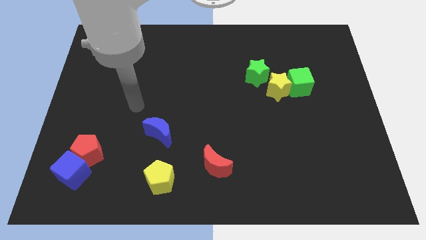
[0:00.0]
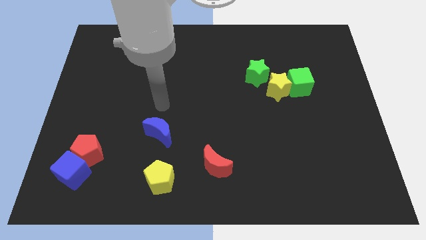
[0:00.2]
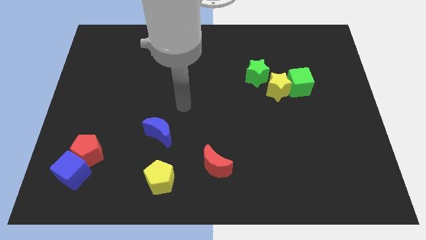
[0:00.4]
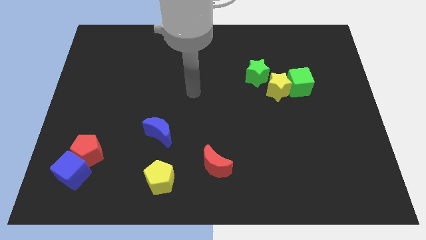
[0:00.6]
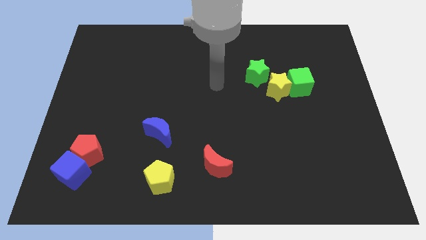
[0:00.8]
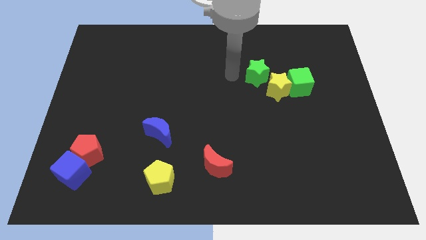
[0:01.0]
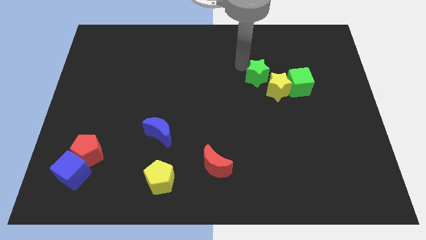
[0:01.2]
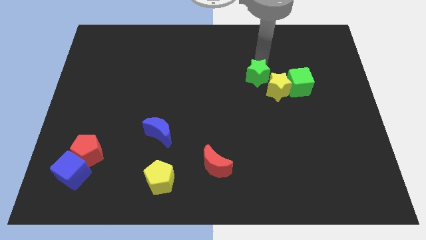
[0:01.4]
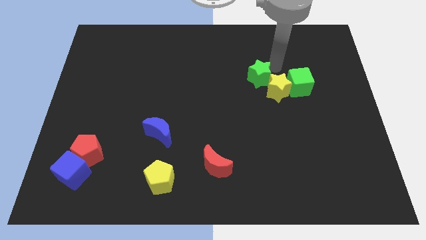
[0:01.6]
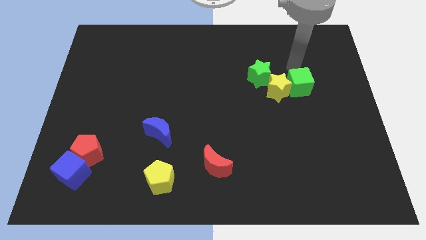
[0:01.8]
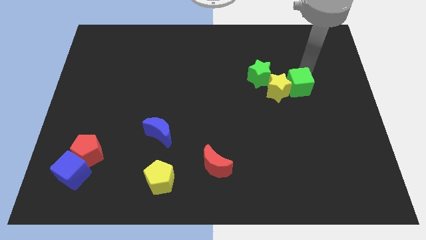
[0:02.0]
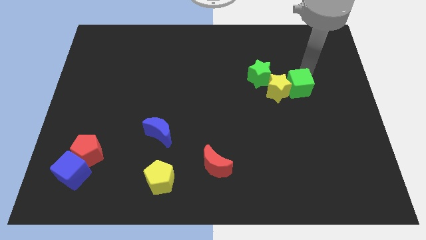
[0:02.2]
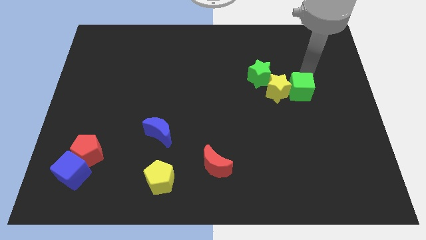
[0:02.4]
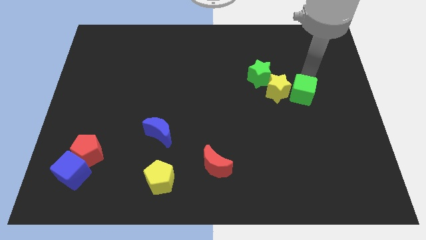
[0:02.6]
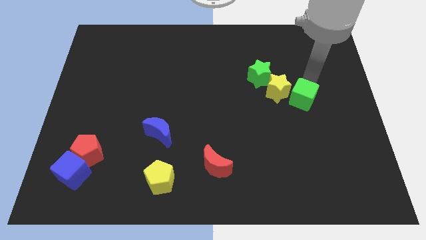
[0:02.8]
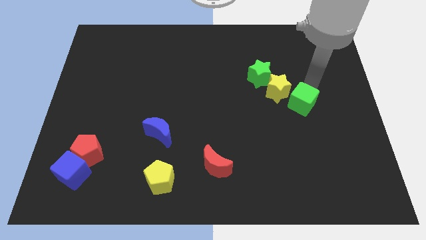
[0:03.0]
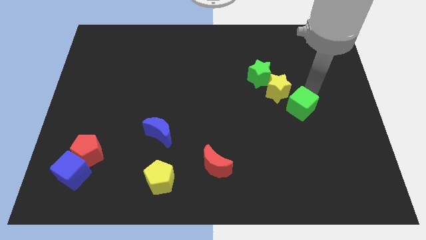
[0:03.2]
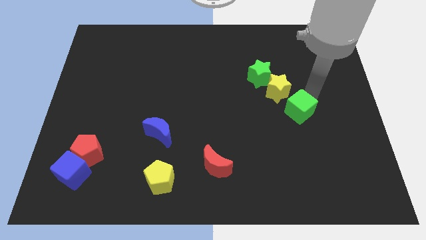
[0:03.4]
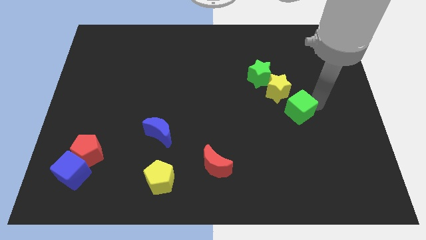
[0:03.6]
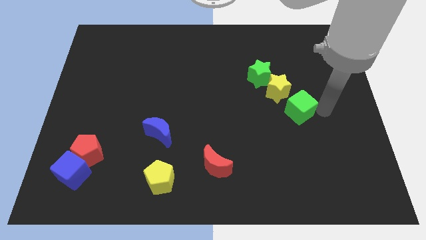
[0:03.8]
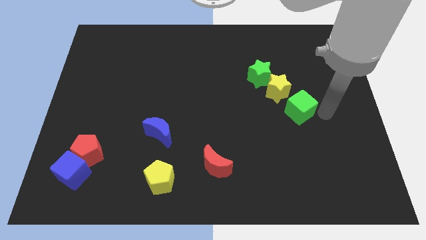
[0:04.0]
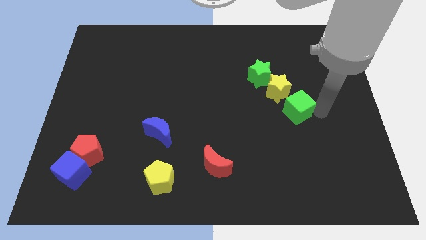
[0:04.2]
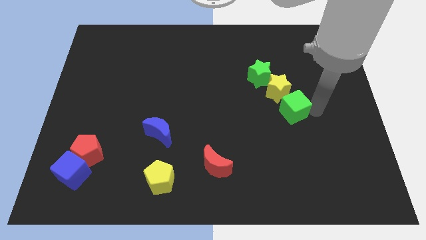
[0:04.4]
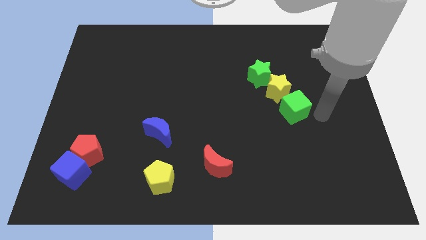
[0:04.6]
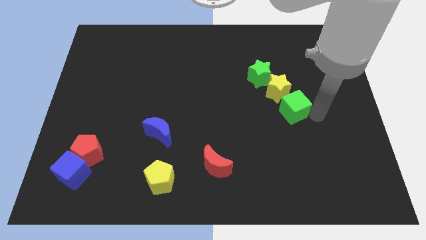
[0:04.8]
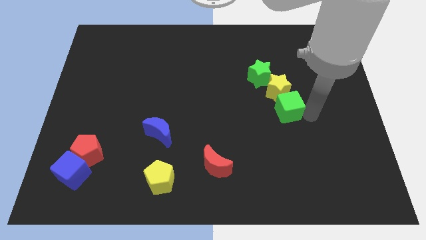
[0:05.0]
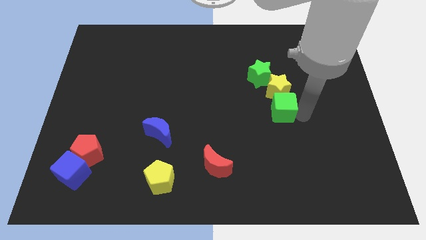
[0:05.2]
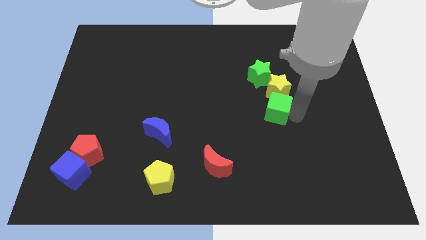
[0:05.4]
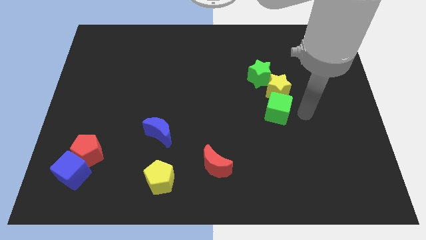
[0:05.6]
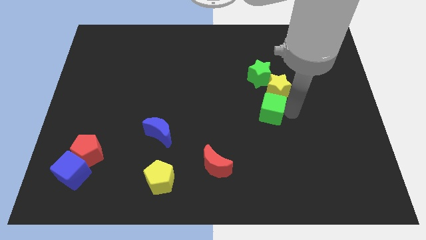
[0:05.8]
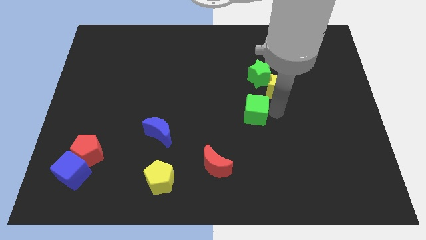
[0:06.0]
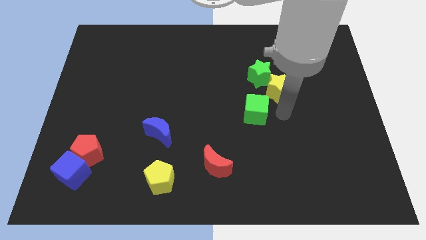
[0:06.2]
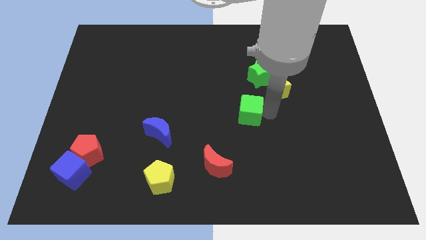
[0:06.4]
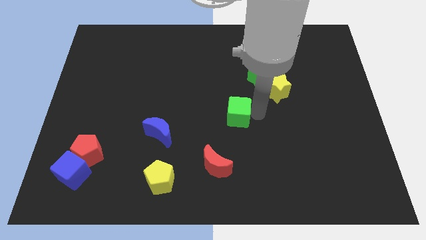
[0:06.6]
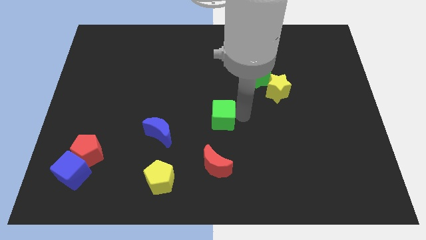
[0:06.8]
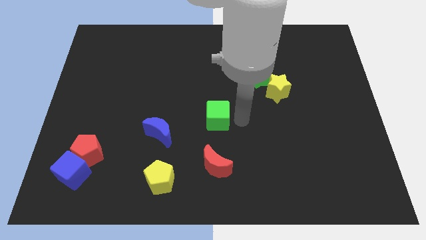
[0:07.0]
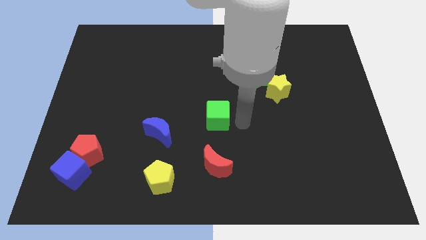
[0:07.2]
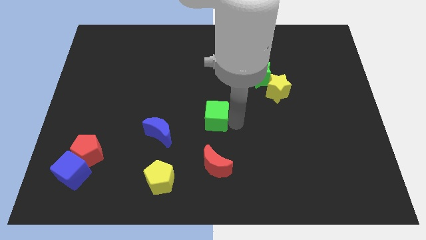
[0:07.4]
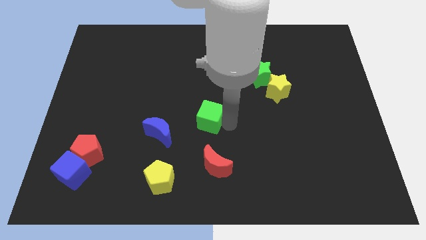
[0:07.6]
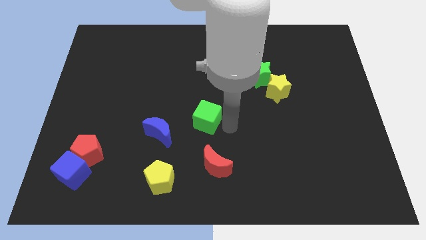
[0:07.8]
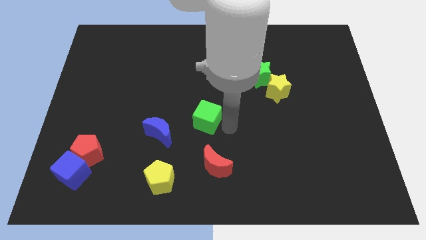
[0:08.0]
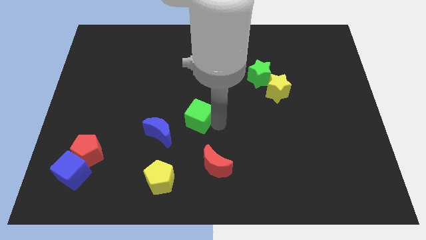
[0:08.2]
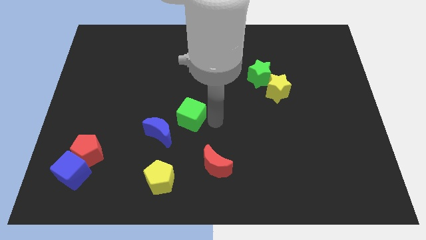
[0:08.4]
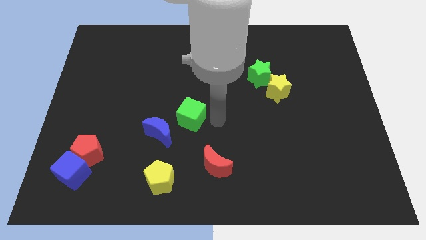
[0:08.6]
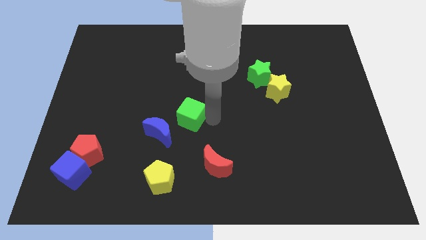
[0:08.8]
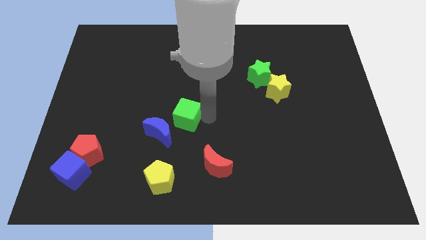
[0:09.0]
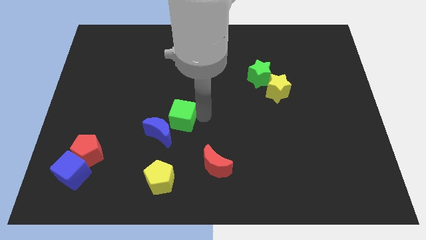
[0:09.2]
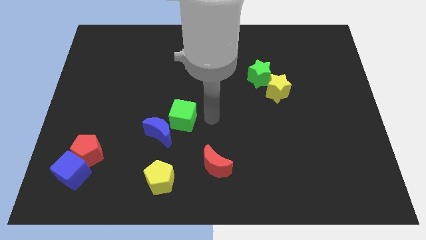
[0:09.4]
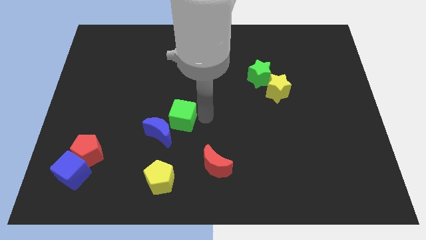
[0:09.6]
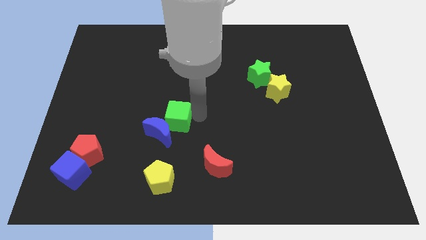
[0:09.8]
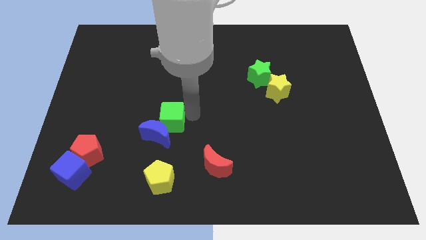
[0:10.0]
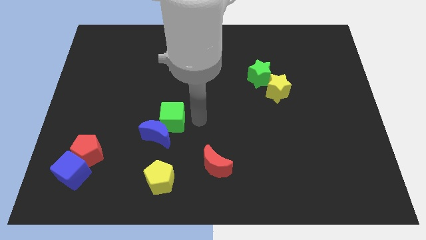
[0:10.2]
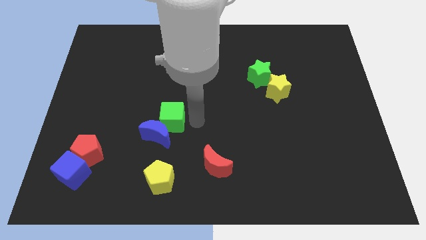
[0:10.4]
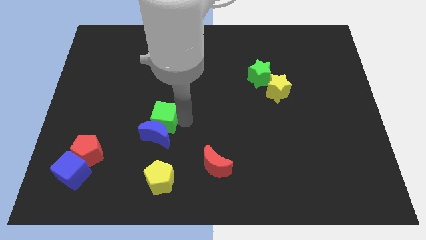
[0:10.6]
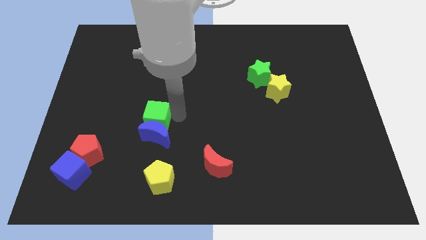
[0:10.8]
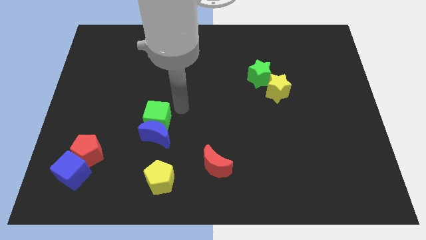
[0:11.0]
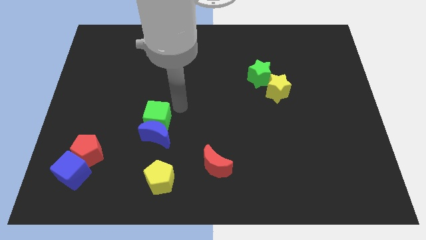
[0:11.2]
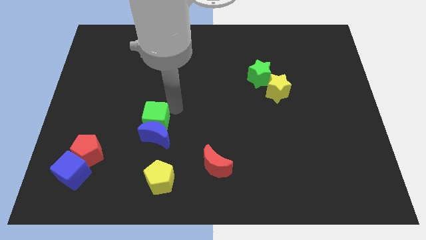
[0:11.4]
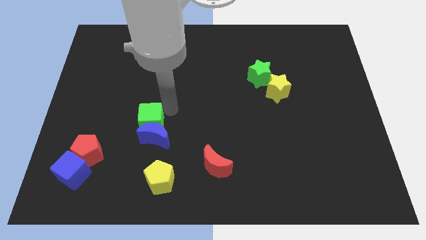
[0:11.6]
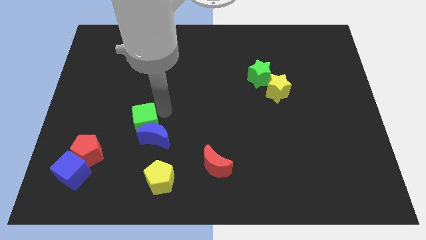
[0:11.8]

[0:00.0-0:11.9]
put the green cube to the left of the blue moon
